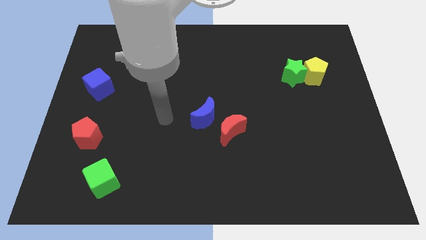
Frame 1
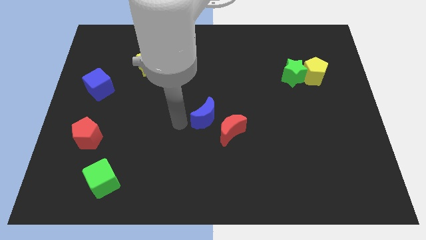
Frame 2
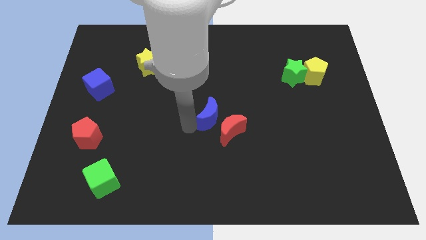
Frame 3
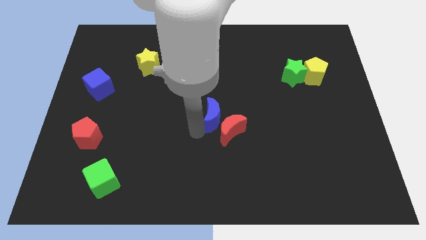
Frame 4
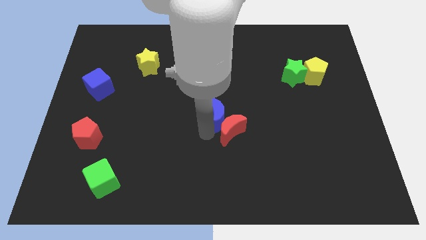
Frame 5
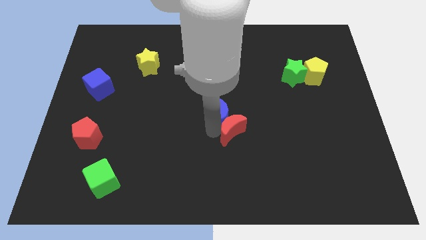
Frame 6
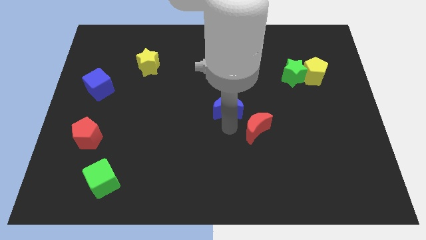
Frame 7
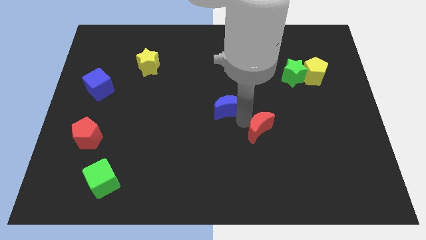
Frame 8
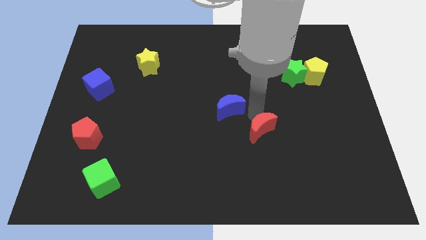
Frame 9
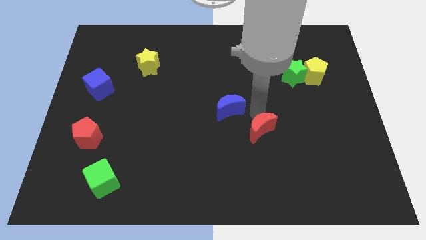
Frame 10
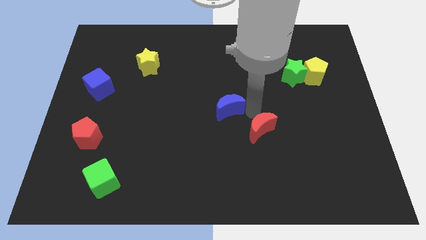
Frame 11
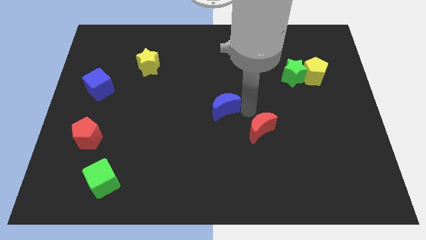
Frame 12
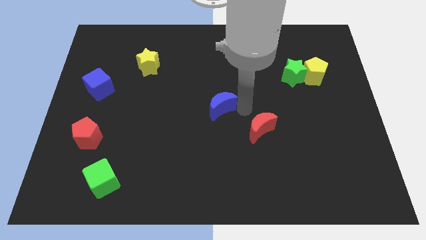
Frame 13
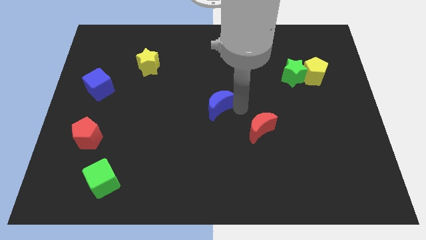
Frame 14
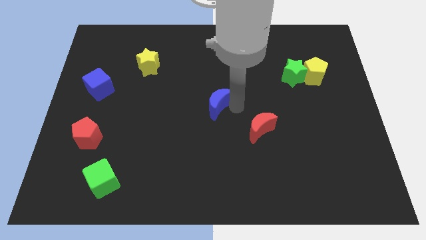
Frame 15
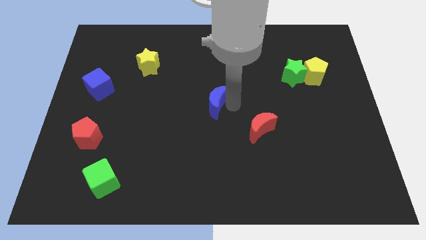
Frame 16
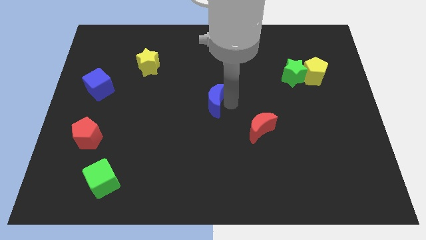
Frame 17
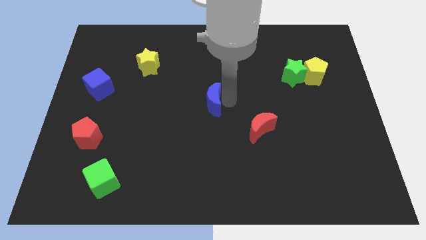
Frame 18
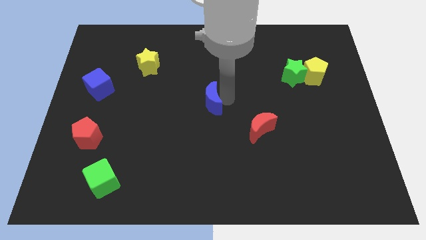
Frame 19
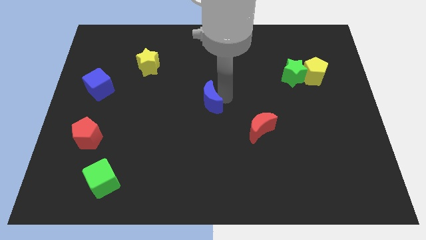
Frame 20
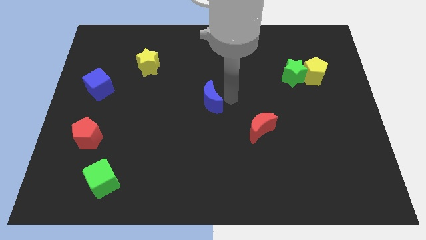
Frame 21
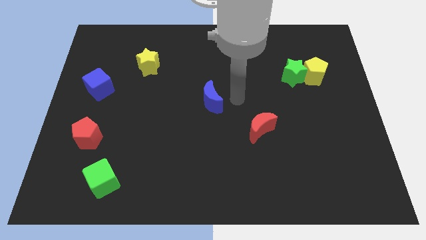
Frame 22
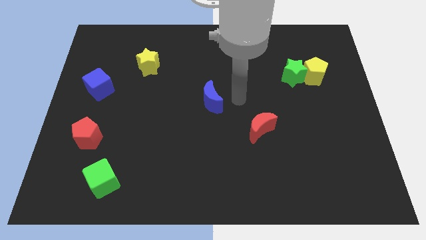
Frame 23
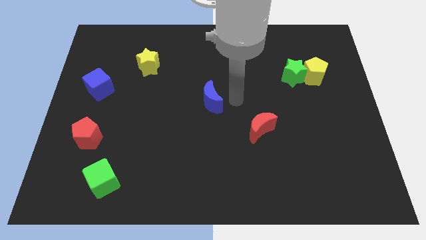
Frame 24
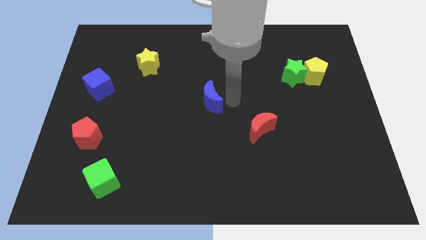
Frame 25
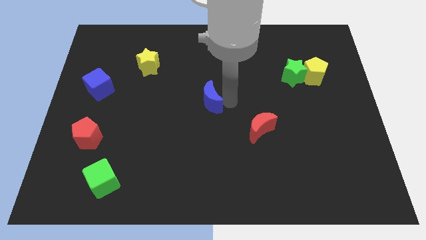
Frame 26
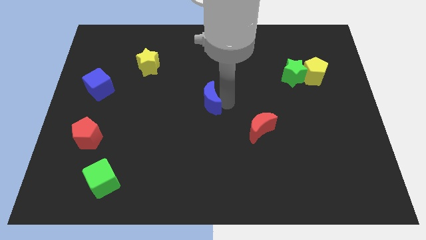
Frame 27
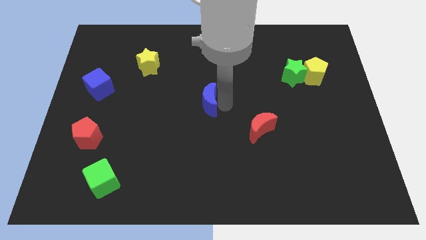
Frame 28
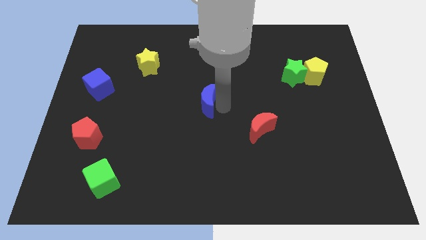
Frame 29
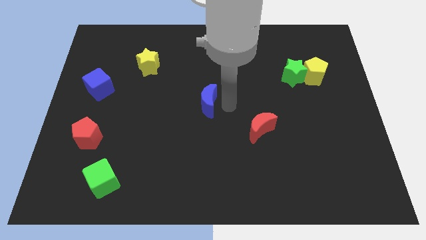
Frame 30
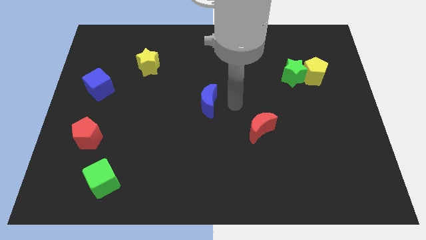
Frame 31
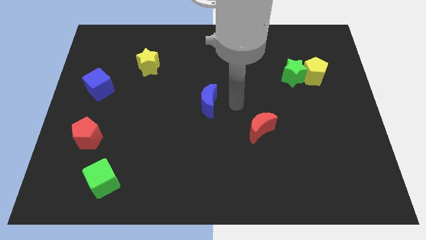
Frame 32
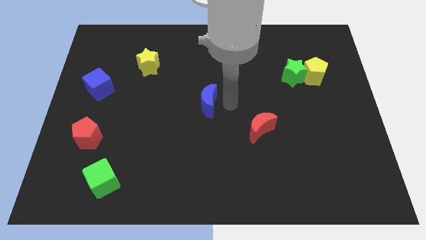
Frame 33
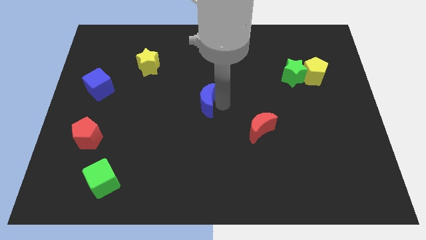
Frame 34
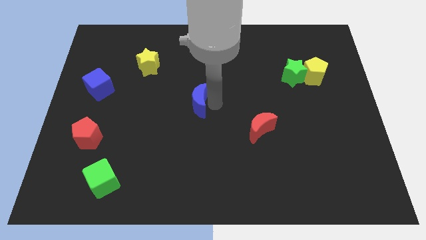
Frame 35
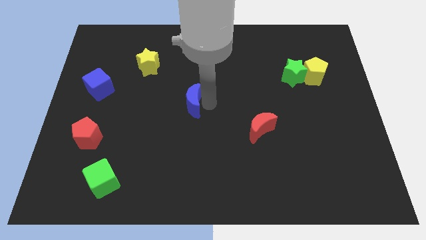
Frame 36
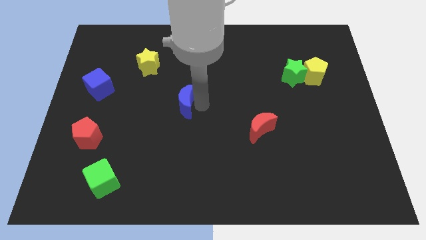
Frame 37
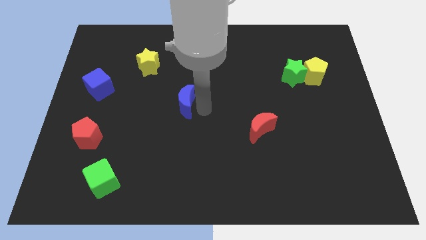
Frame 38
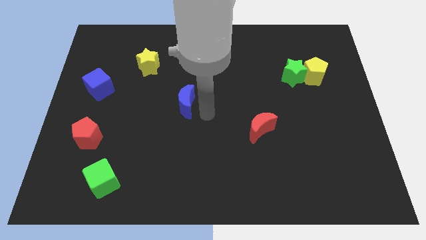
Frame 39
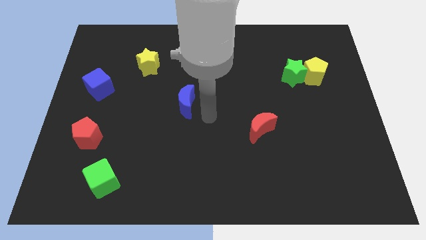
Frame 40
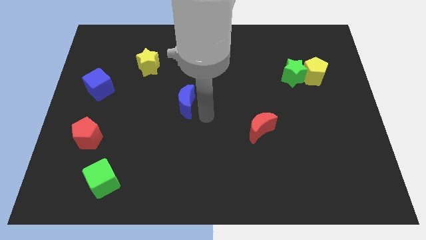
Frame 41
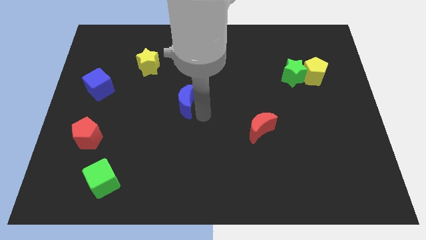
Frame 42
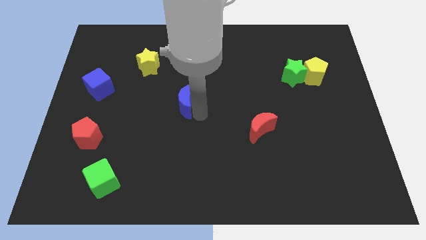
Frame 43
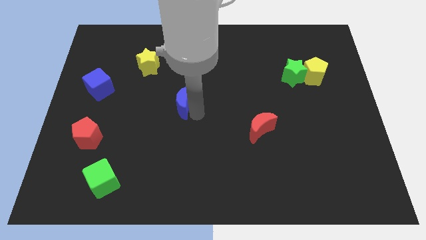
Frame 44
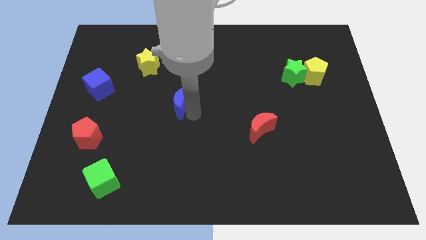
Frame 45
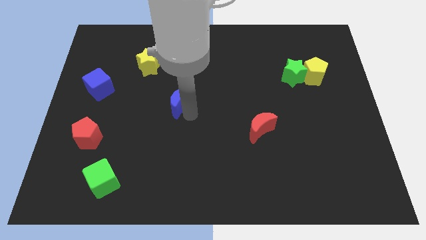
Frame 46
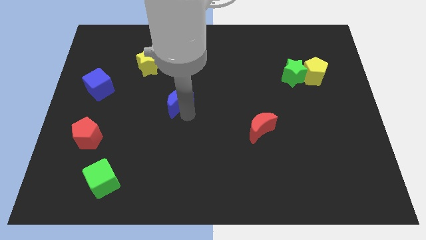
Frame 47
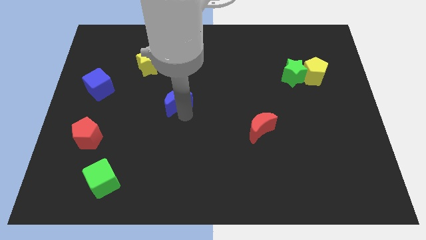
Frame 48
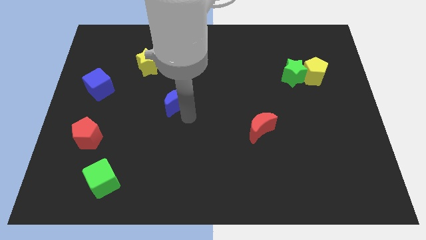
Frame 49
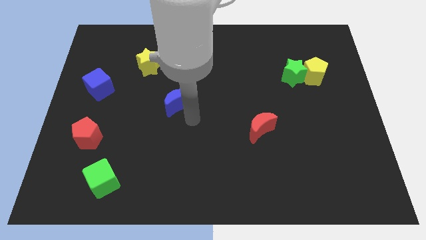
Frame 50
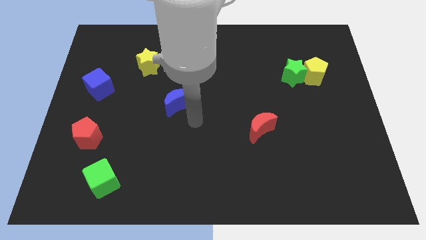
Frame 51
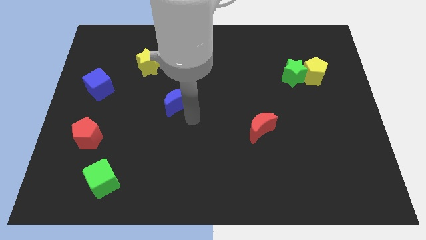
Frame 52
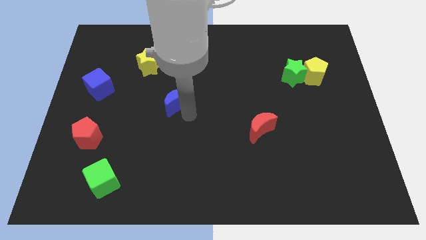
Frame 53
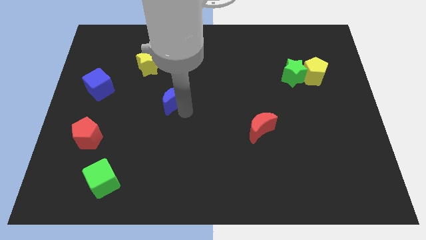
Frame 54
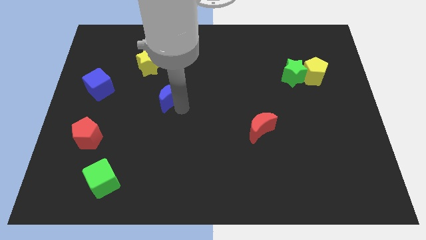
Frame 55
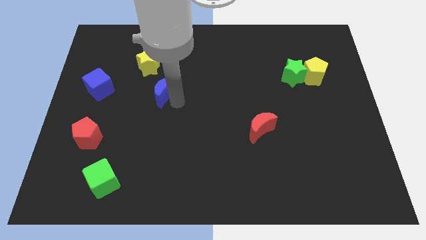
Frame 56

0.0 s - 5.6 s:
move the blue moon right of the blue cube

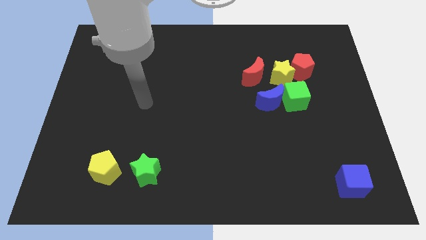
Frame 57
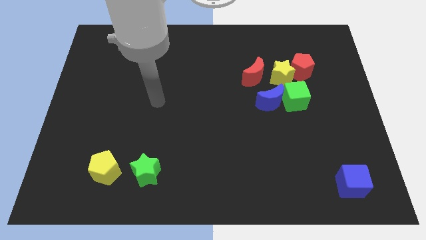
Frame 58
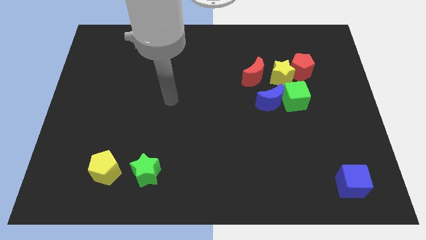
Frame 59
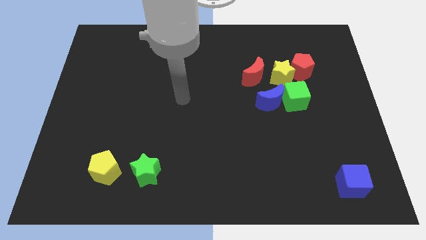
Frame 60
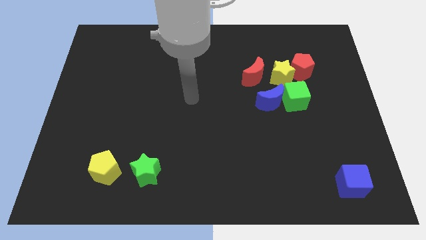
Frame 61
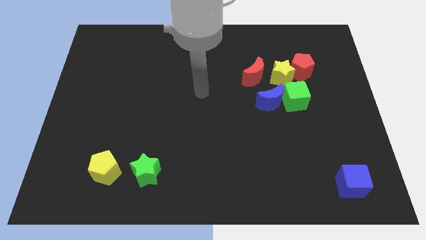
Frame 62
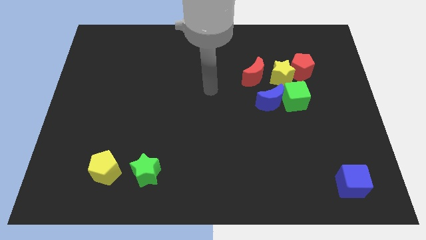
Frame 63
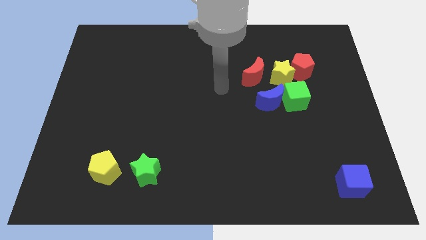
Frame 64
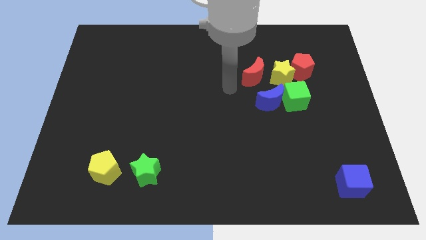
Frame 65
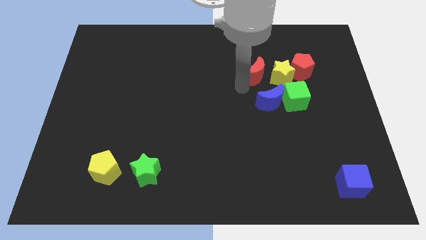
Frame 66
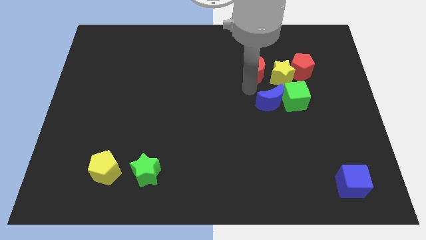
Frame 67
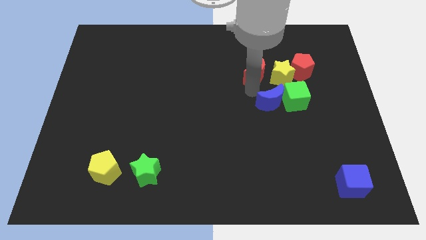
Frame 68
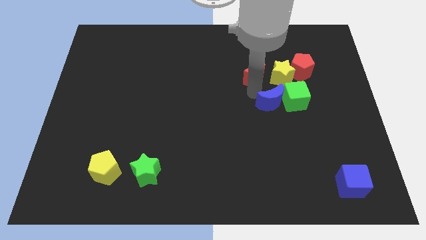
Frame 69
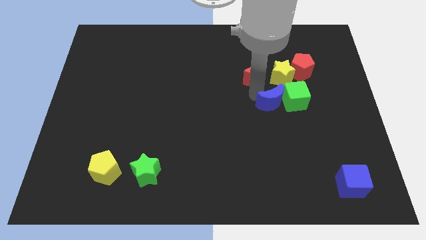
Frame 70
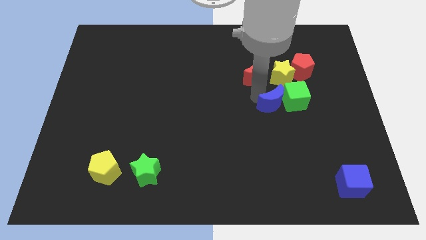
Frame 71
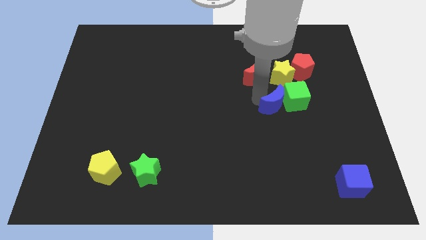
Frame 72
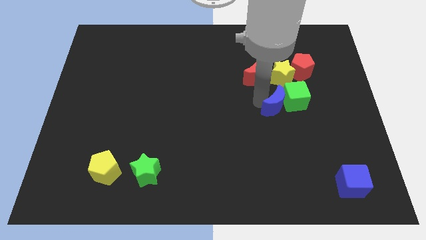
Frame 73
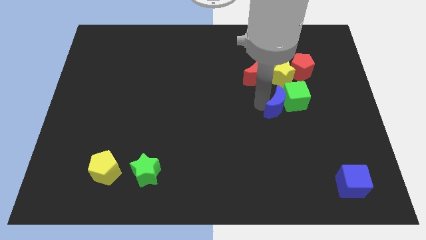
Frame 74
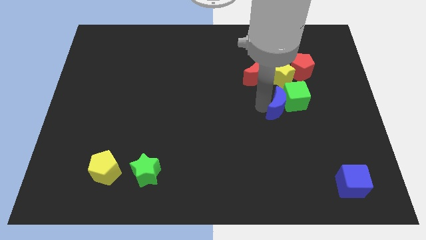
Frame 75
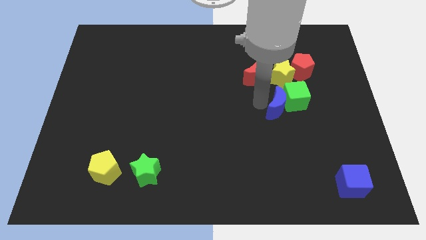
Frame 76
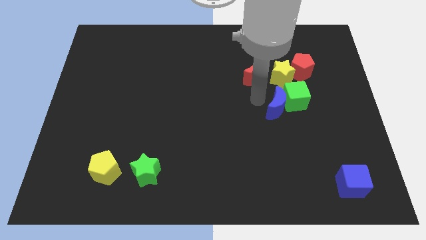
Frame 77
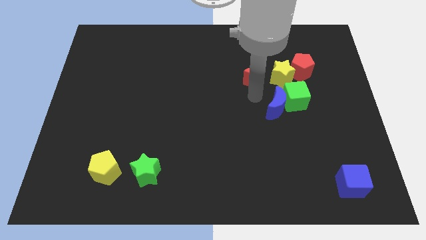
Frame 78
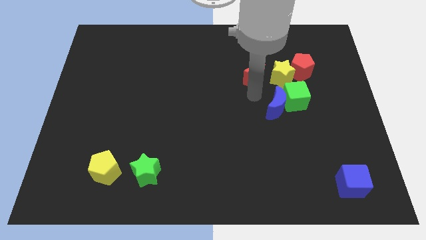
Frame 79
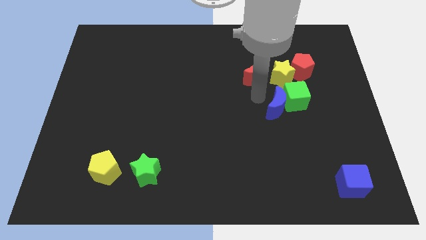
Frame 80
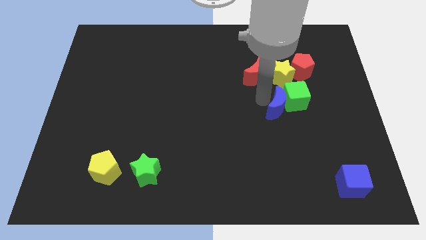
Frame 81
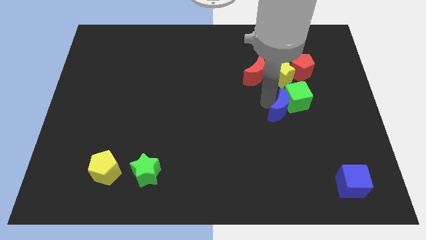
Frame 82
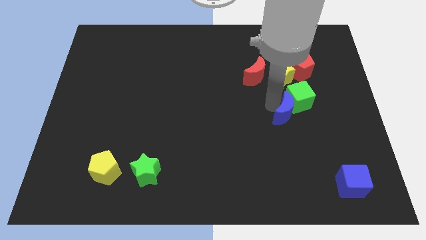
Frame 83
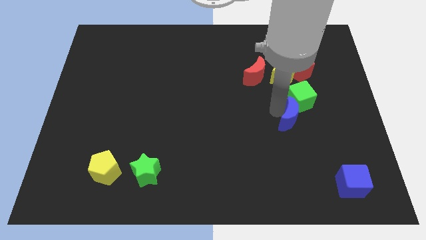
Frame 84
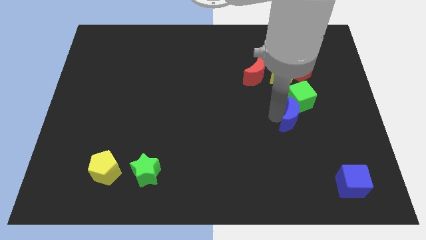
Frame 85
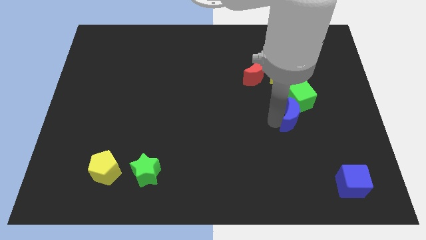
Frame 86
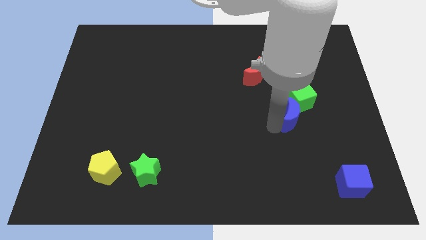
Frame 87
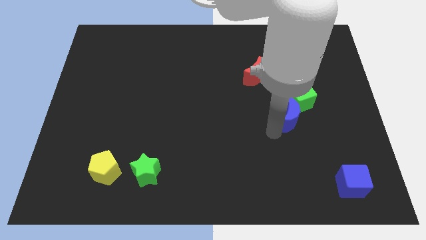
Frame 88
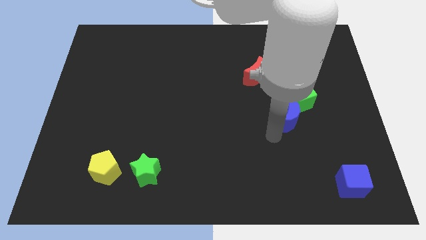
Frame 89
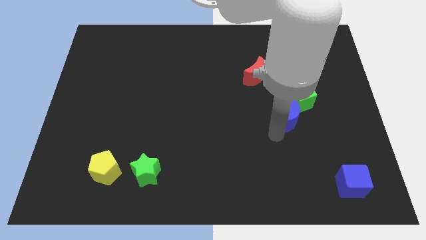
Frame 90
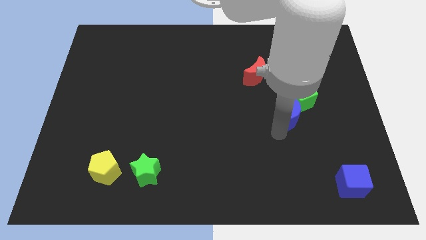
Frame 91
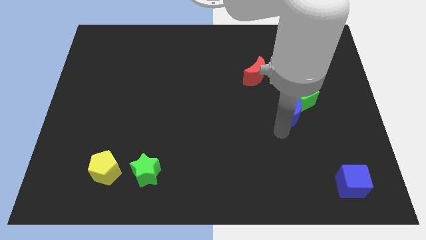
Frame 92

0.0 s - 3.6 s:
slide the blue moon to the bottom of the red pentagon
